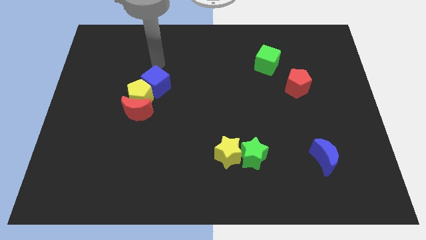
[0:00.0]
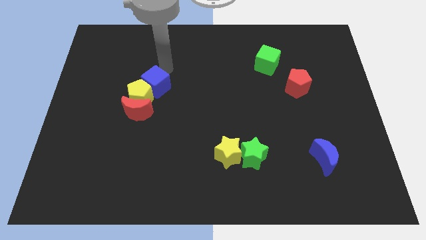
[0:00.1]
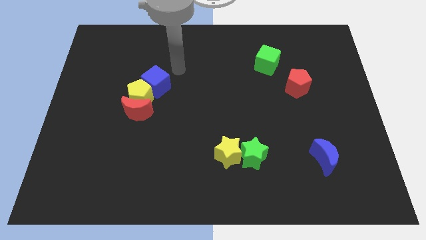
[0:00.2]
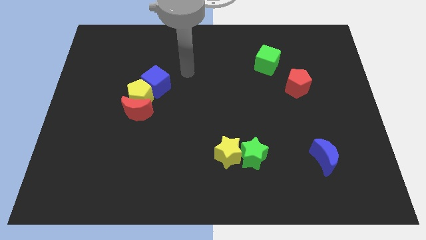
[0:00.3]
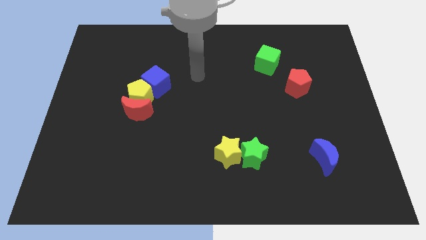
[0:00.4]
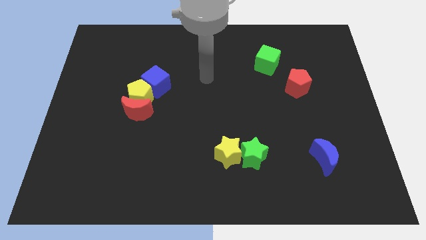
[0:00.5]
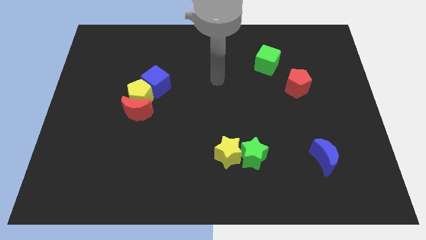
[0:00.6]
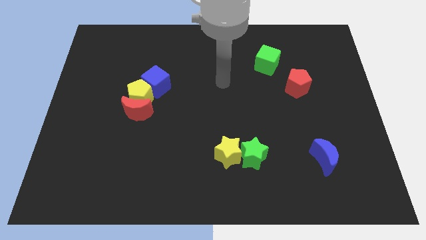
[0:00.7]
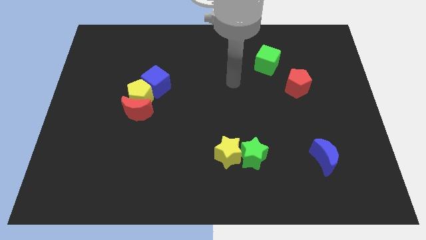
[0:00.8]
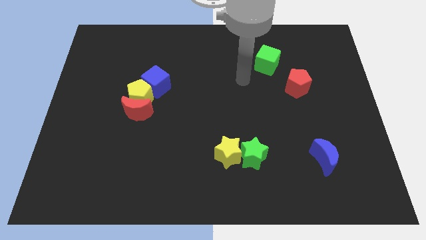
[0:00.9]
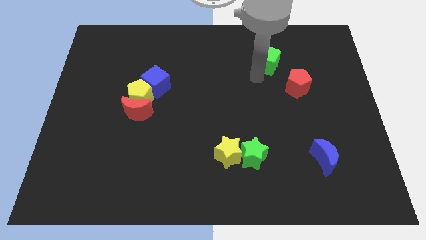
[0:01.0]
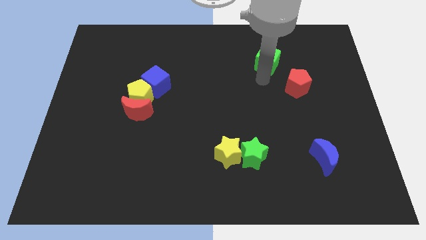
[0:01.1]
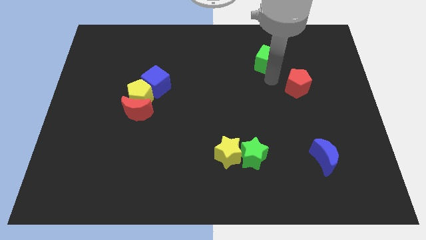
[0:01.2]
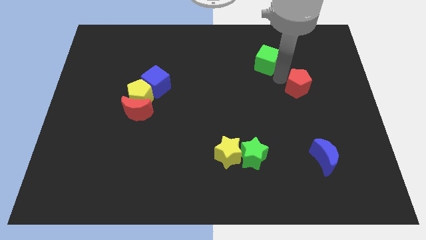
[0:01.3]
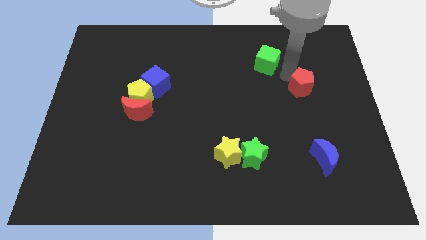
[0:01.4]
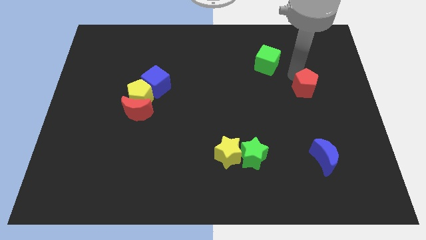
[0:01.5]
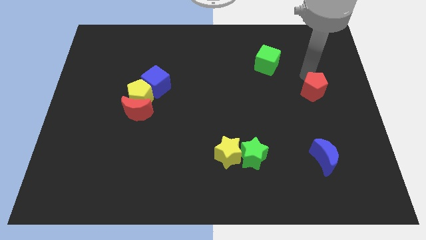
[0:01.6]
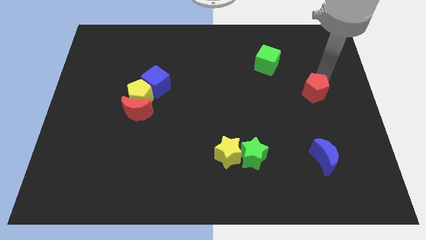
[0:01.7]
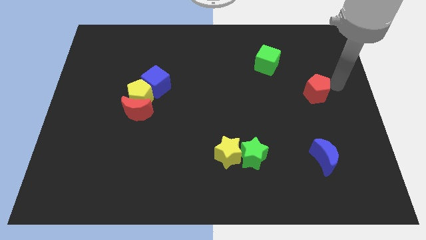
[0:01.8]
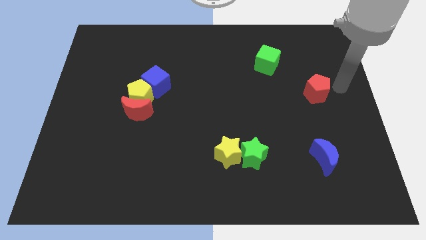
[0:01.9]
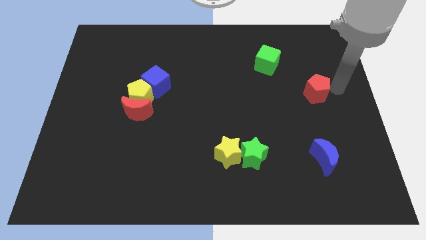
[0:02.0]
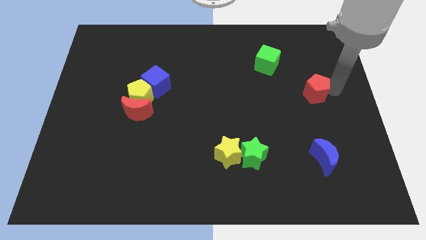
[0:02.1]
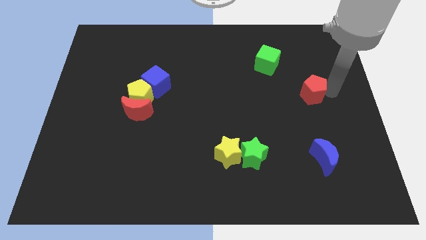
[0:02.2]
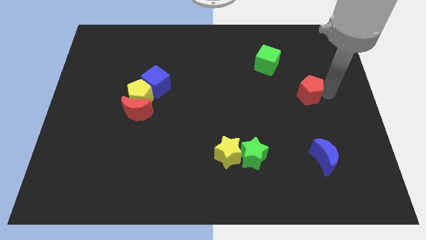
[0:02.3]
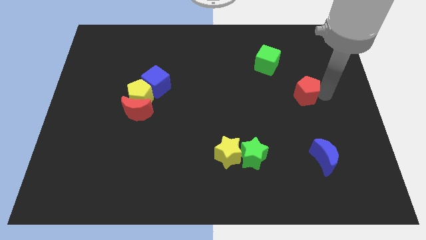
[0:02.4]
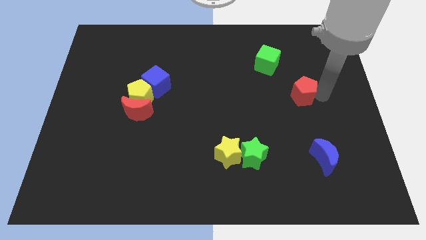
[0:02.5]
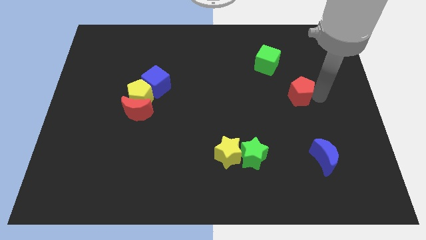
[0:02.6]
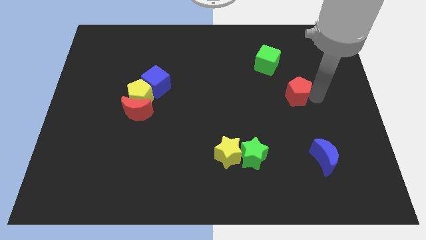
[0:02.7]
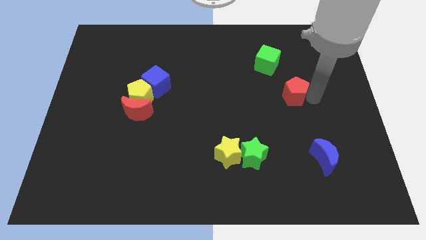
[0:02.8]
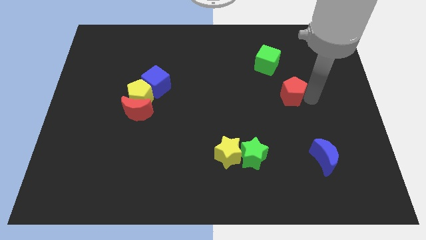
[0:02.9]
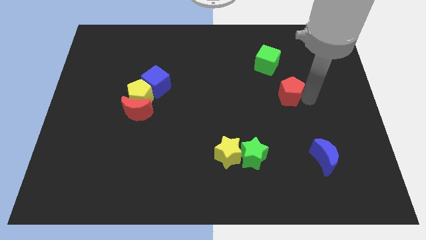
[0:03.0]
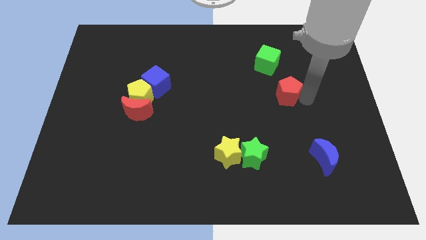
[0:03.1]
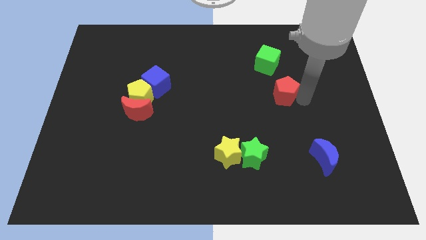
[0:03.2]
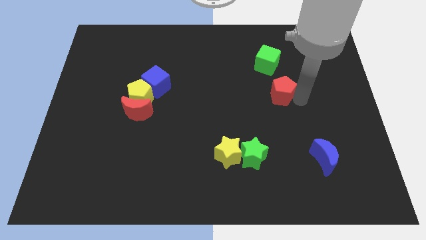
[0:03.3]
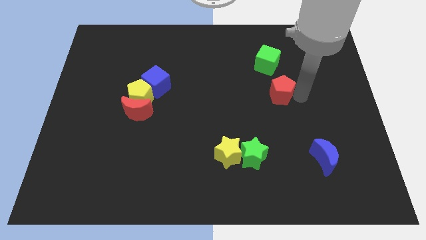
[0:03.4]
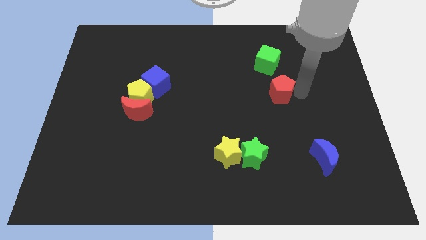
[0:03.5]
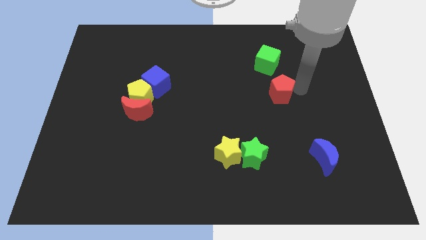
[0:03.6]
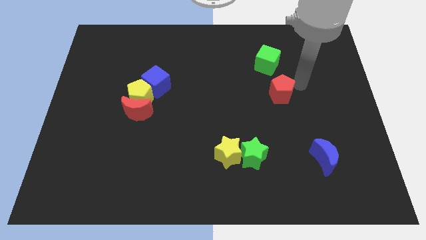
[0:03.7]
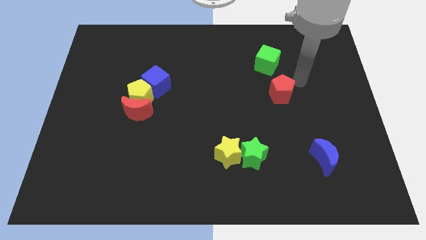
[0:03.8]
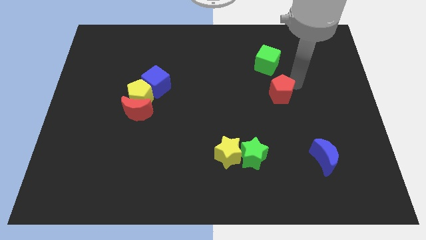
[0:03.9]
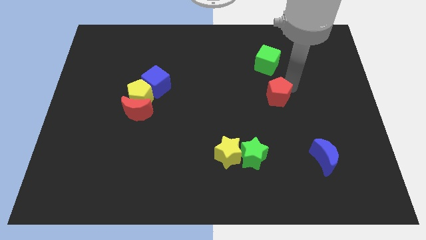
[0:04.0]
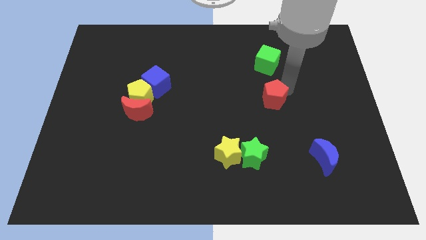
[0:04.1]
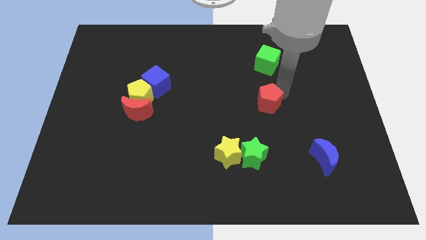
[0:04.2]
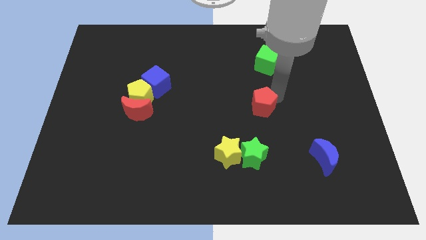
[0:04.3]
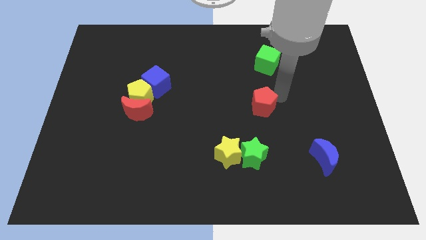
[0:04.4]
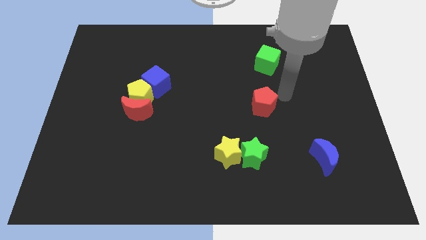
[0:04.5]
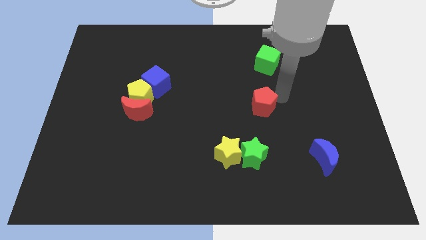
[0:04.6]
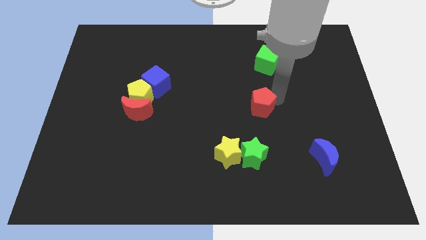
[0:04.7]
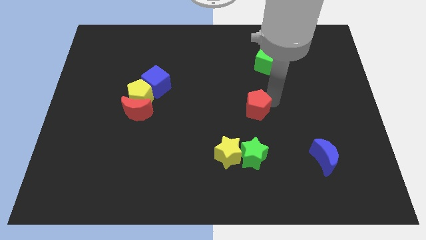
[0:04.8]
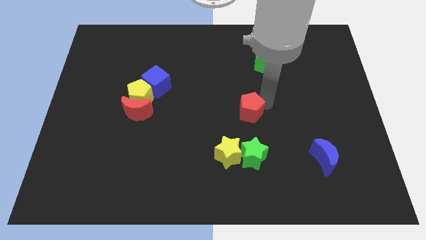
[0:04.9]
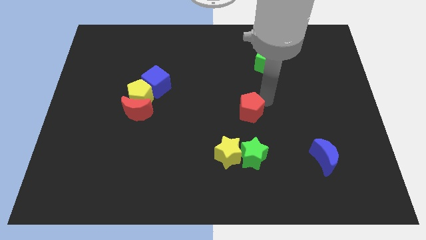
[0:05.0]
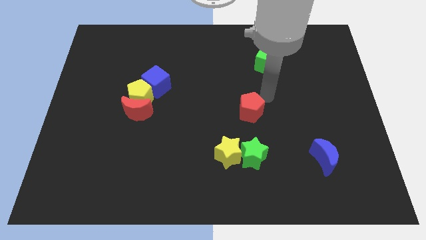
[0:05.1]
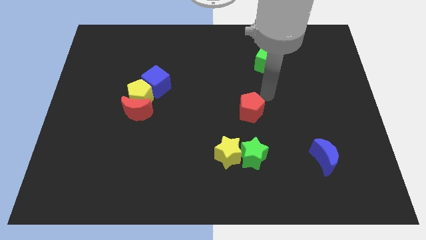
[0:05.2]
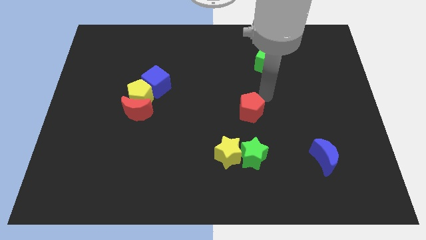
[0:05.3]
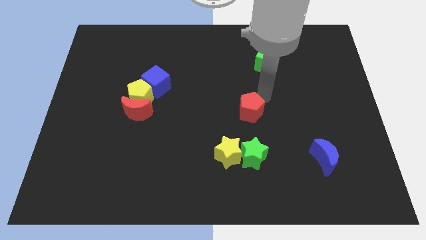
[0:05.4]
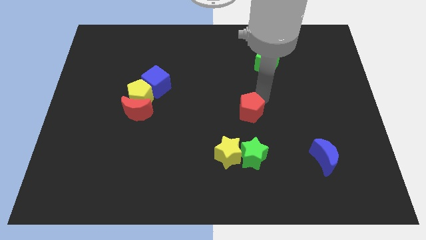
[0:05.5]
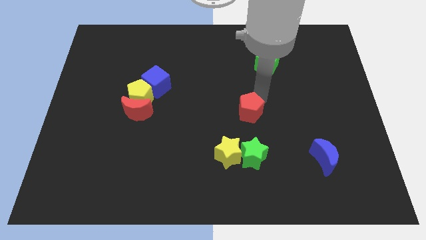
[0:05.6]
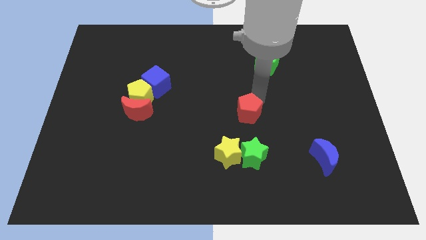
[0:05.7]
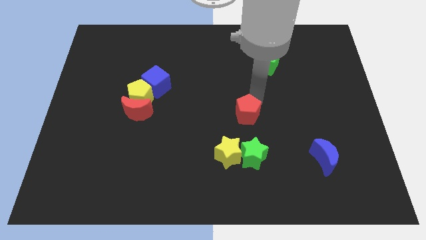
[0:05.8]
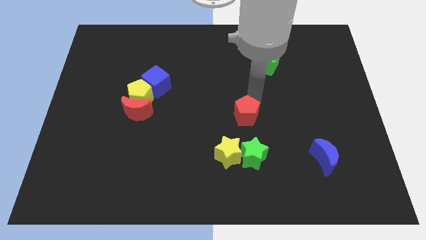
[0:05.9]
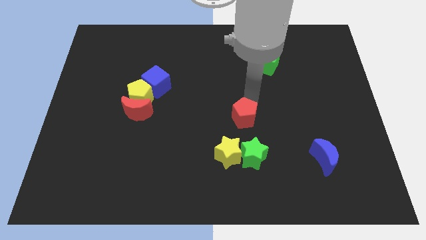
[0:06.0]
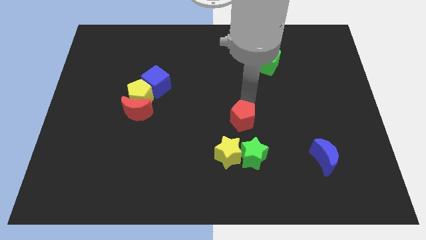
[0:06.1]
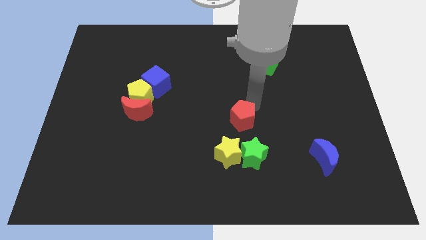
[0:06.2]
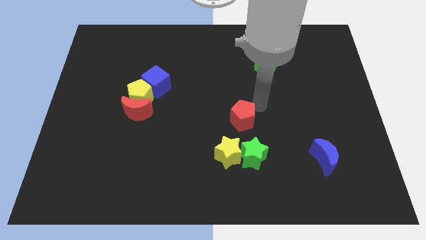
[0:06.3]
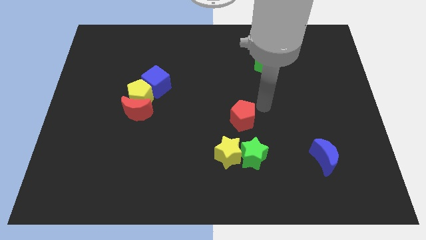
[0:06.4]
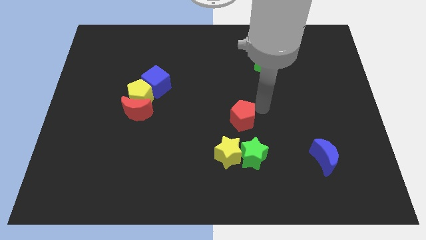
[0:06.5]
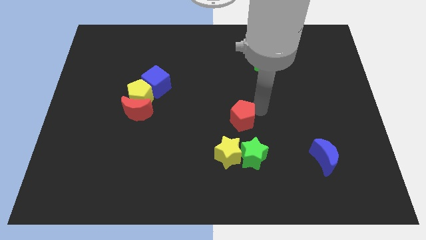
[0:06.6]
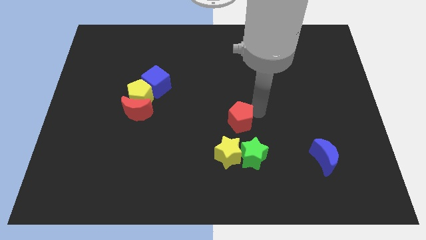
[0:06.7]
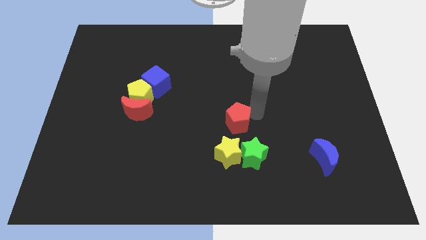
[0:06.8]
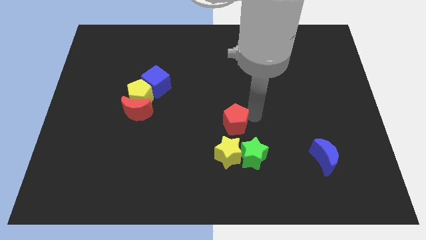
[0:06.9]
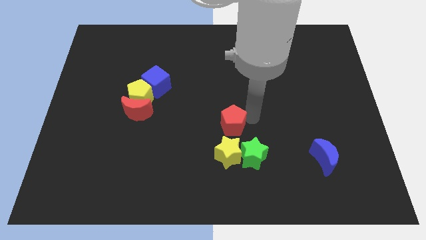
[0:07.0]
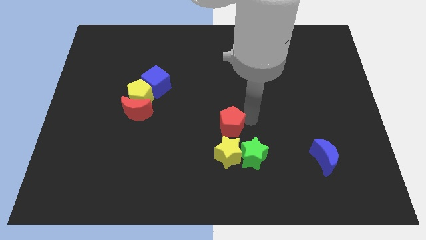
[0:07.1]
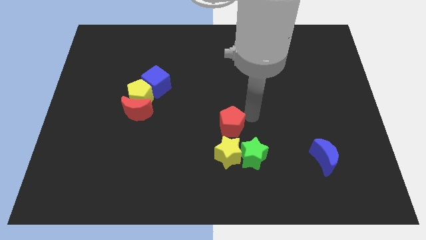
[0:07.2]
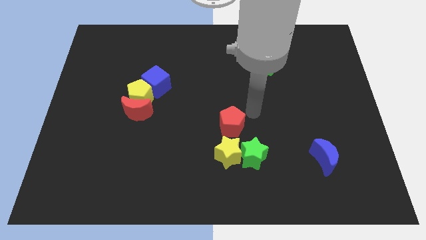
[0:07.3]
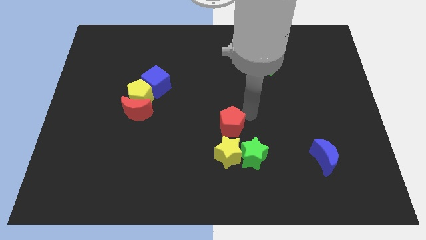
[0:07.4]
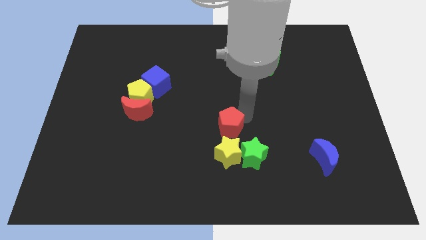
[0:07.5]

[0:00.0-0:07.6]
slide the red pentagon down and then left

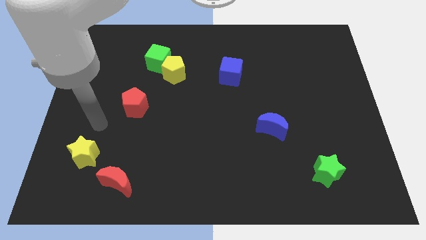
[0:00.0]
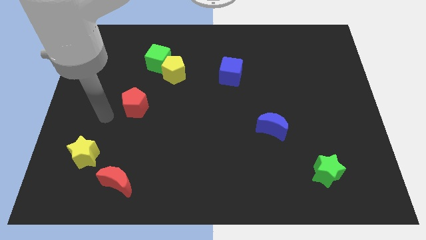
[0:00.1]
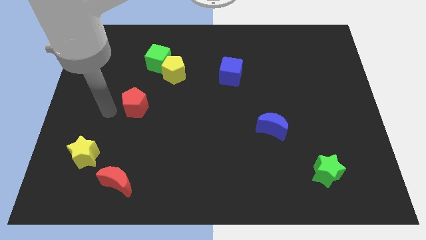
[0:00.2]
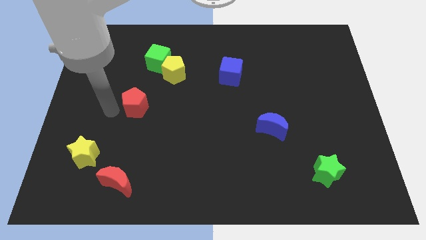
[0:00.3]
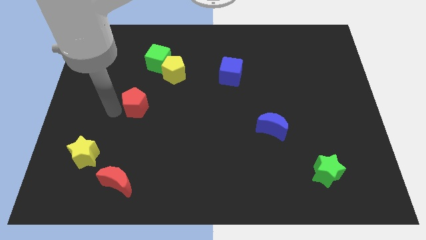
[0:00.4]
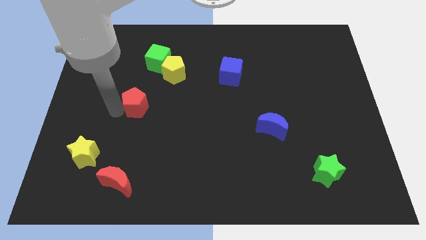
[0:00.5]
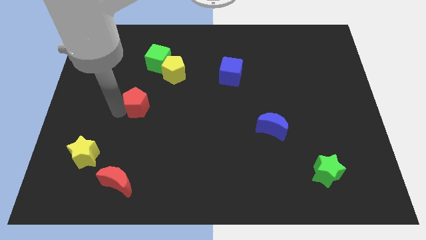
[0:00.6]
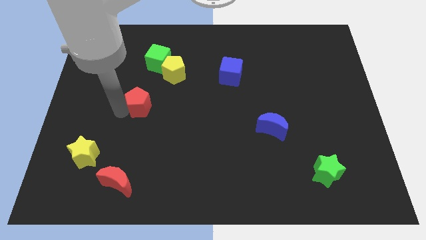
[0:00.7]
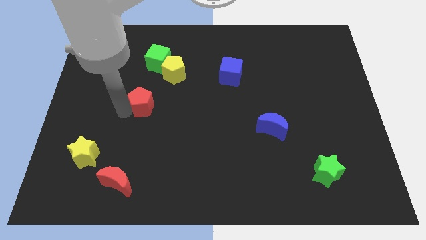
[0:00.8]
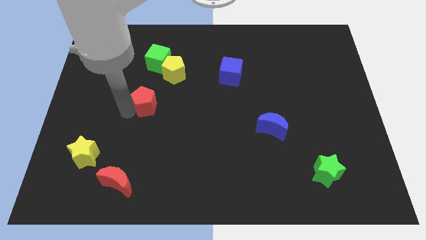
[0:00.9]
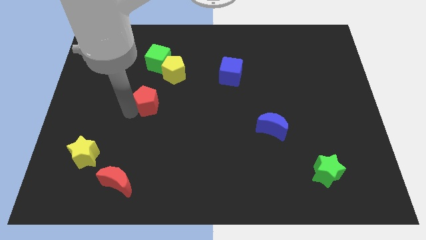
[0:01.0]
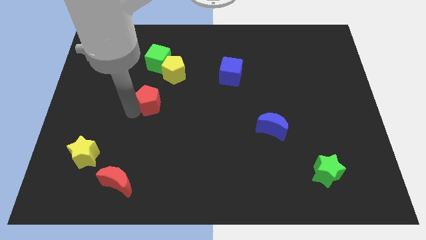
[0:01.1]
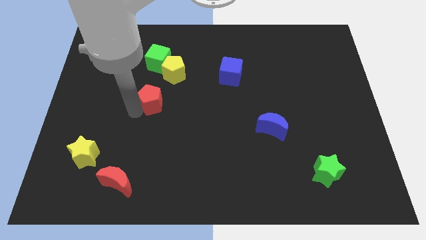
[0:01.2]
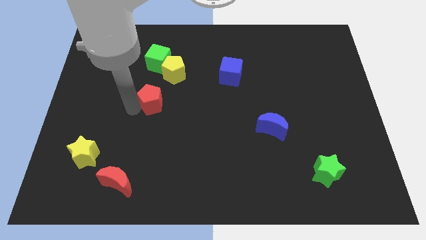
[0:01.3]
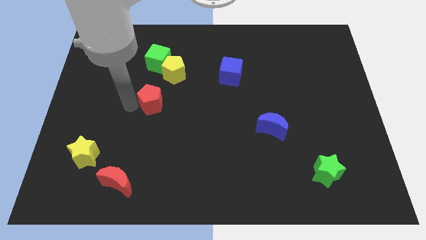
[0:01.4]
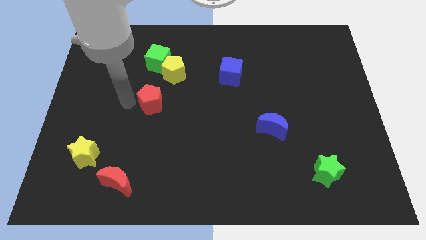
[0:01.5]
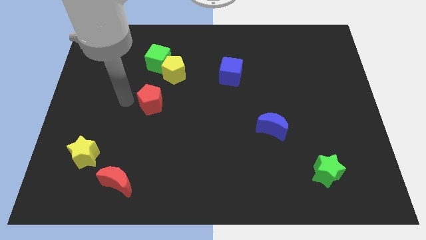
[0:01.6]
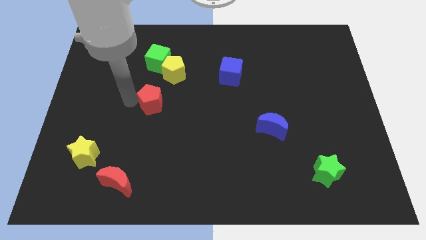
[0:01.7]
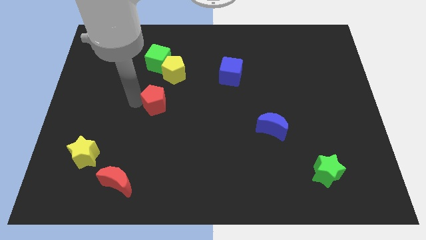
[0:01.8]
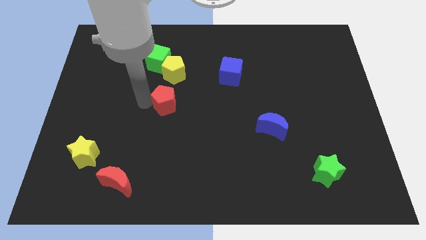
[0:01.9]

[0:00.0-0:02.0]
push the red pentagon a little bit to the right
